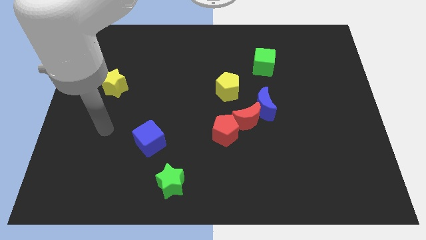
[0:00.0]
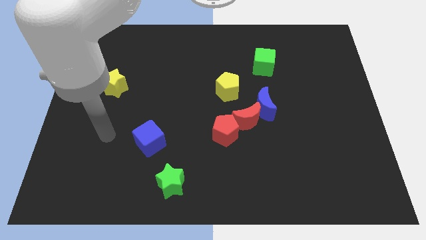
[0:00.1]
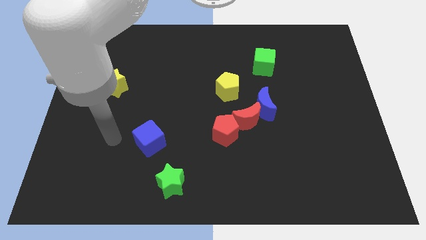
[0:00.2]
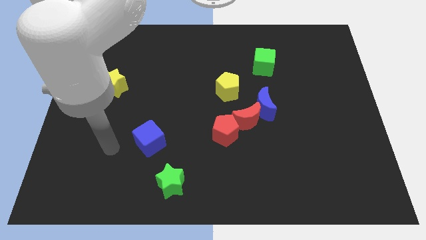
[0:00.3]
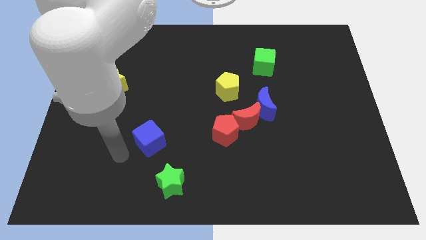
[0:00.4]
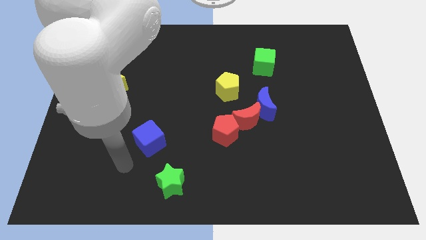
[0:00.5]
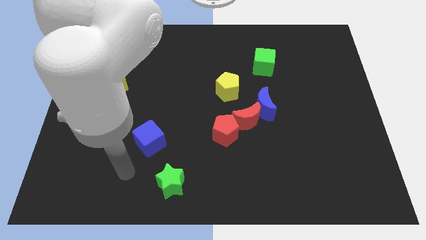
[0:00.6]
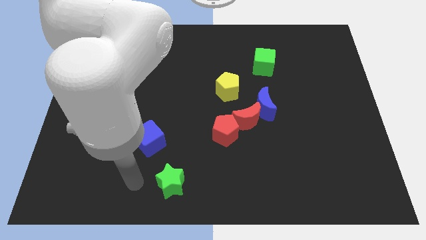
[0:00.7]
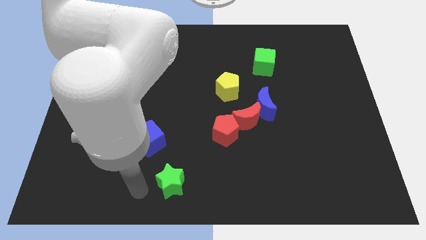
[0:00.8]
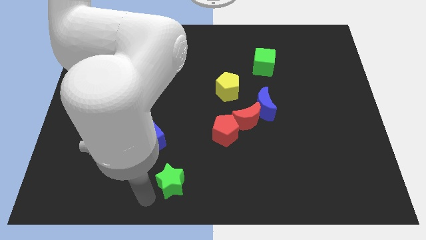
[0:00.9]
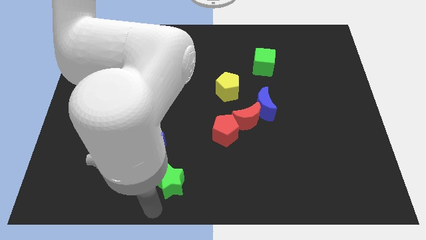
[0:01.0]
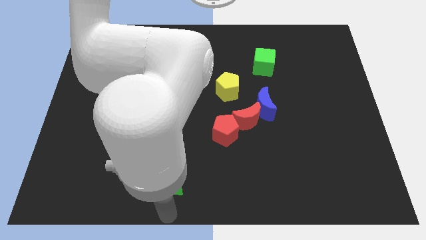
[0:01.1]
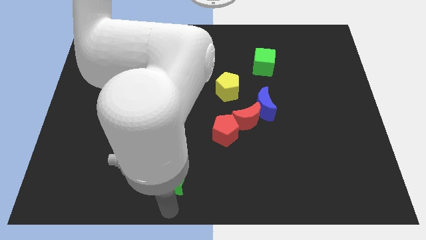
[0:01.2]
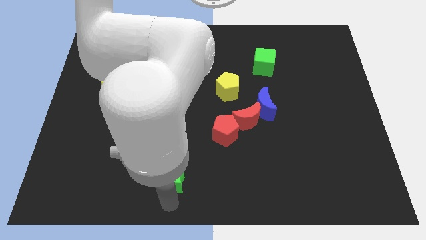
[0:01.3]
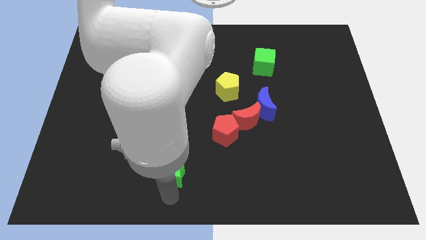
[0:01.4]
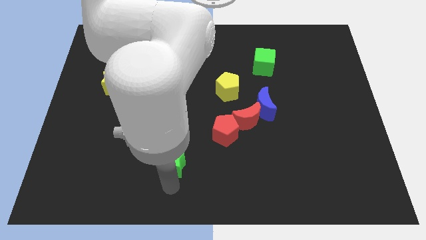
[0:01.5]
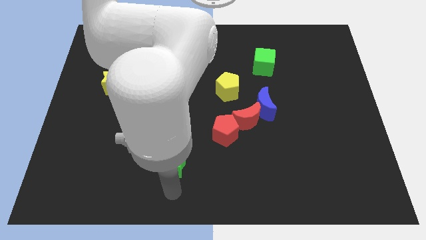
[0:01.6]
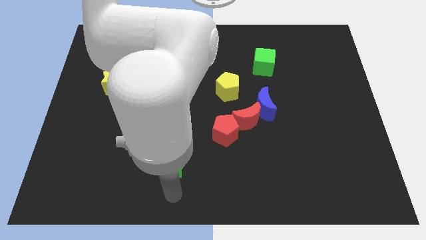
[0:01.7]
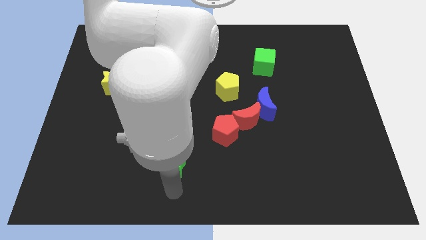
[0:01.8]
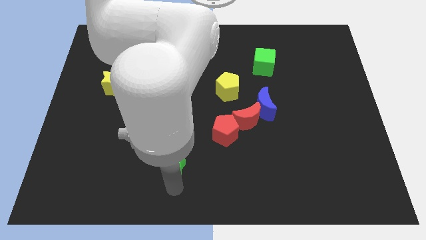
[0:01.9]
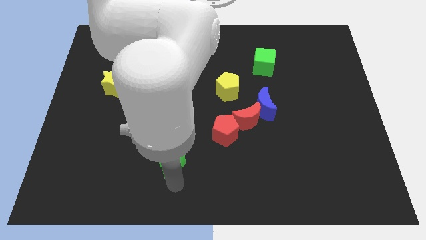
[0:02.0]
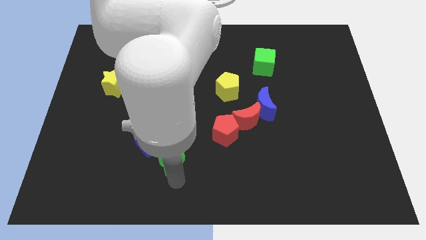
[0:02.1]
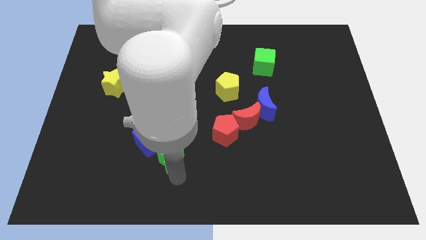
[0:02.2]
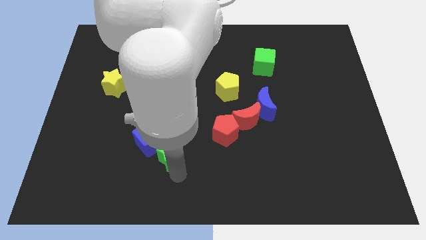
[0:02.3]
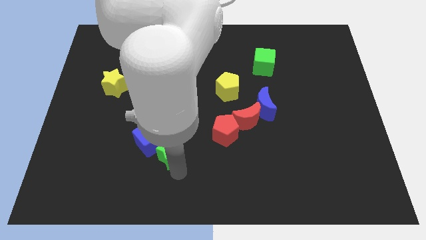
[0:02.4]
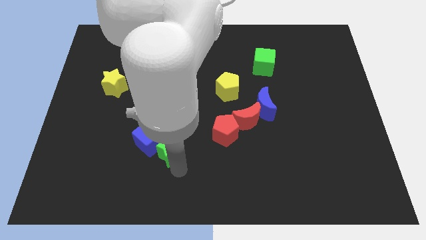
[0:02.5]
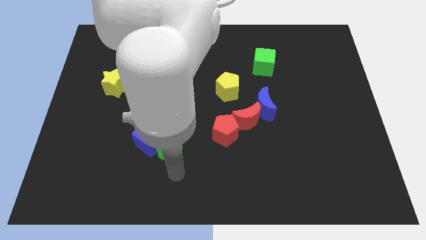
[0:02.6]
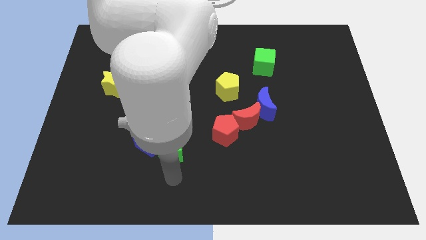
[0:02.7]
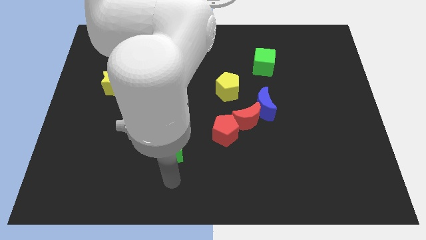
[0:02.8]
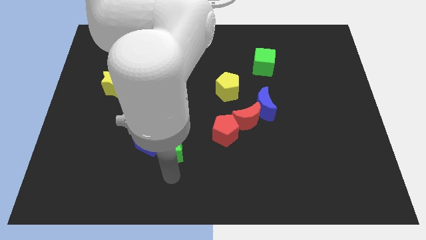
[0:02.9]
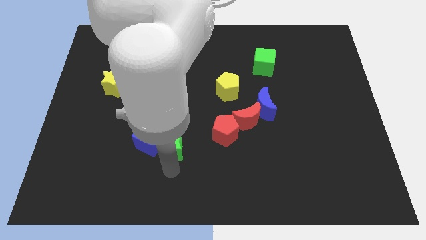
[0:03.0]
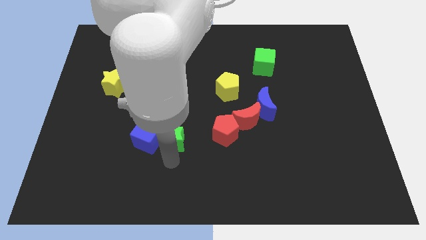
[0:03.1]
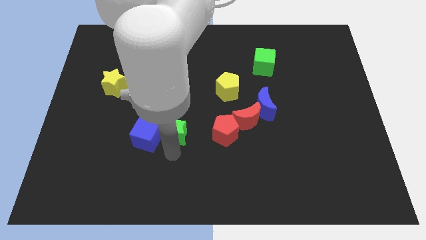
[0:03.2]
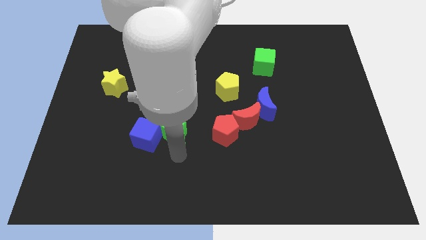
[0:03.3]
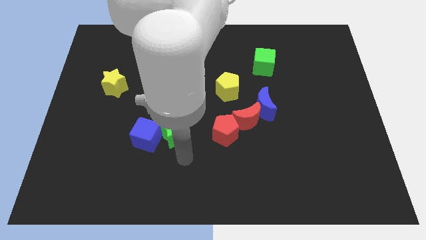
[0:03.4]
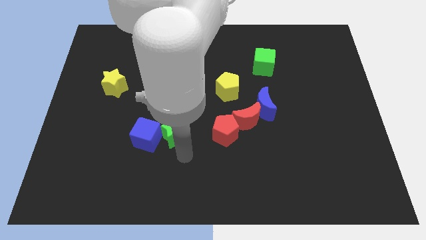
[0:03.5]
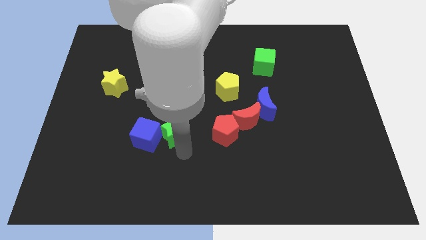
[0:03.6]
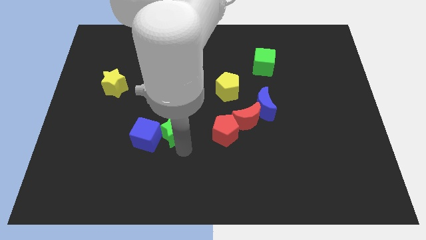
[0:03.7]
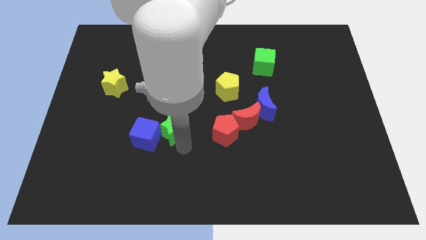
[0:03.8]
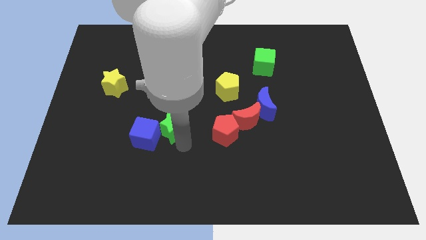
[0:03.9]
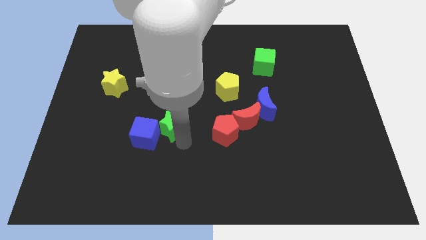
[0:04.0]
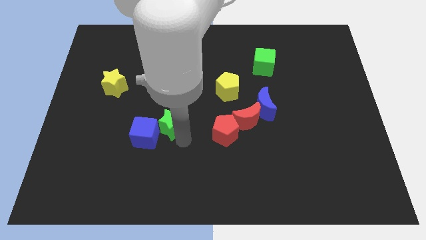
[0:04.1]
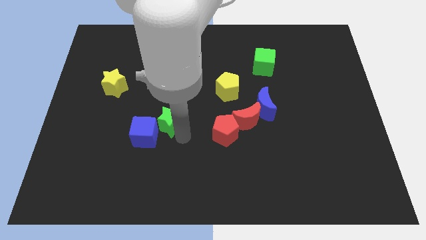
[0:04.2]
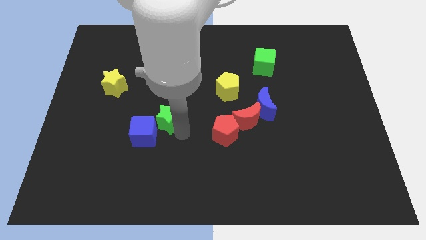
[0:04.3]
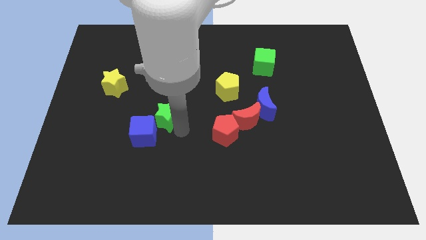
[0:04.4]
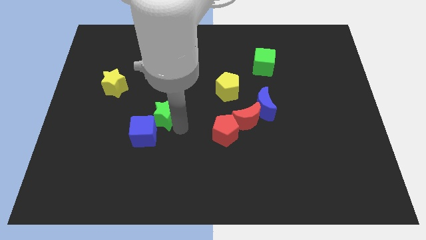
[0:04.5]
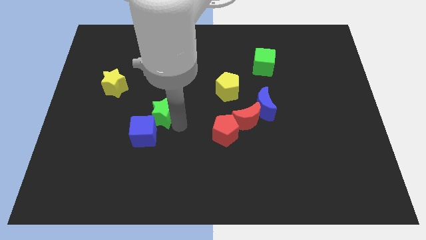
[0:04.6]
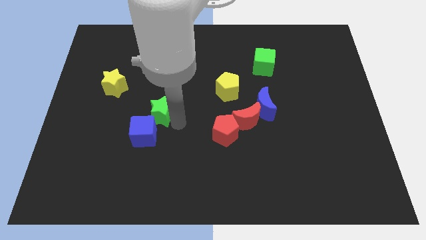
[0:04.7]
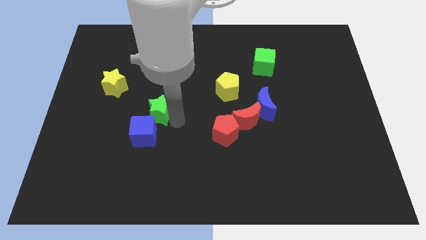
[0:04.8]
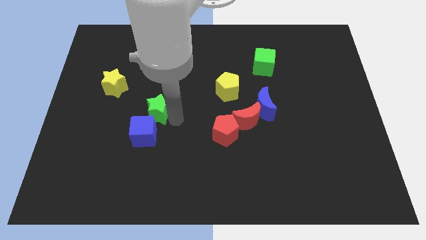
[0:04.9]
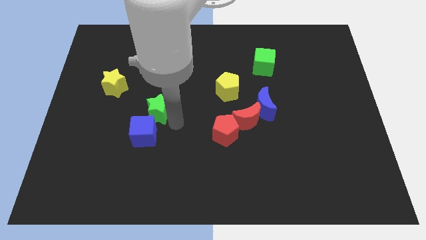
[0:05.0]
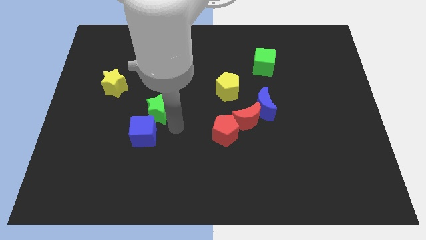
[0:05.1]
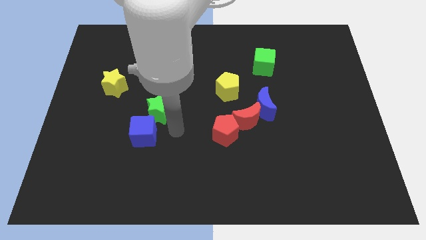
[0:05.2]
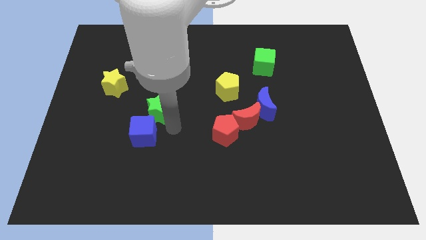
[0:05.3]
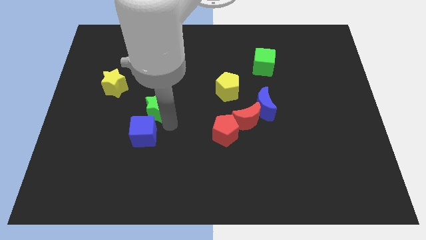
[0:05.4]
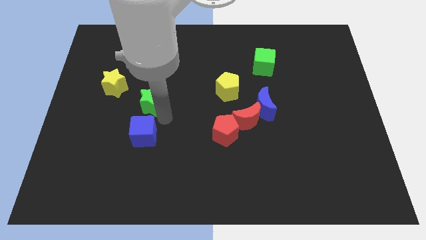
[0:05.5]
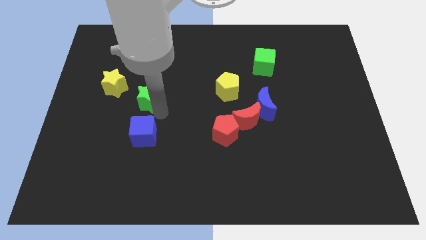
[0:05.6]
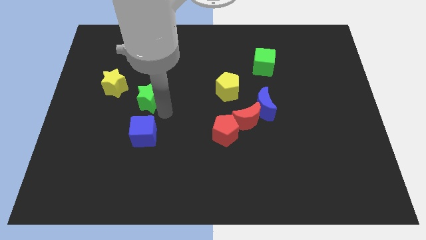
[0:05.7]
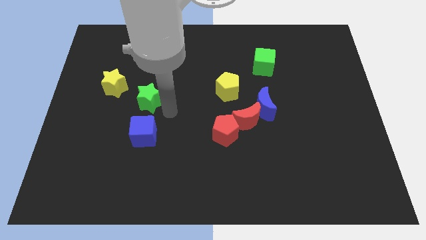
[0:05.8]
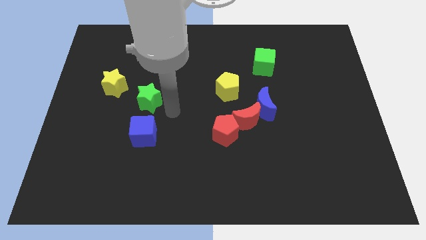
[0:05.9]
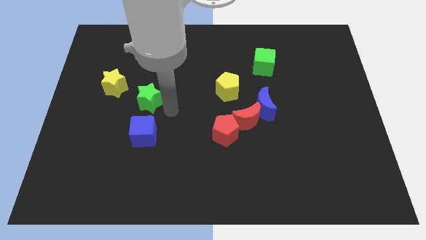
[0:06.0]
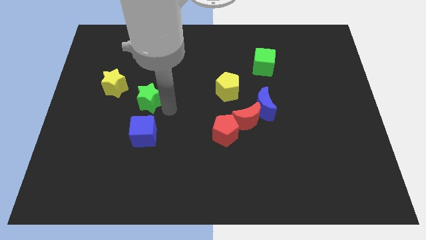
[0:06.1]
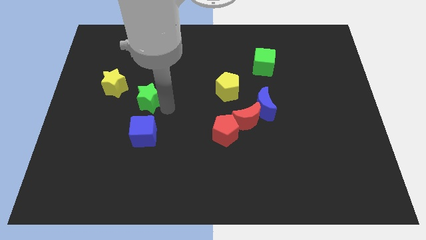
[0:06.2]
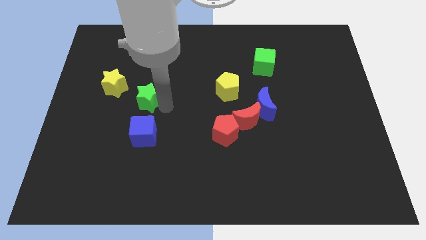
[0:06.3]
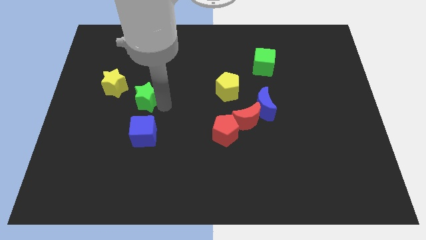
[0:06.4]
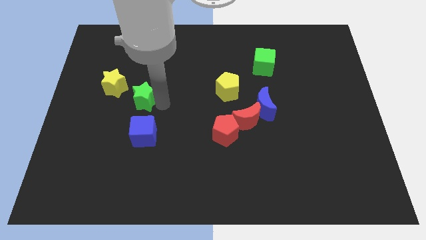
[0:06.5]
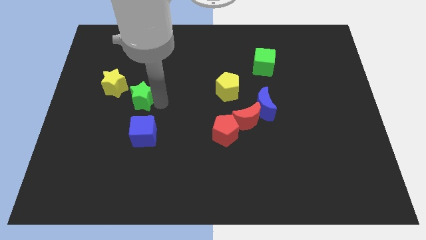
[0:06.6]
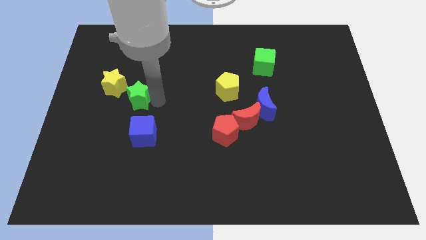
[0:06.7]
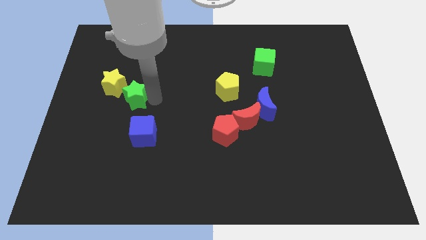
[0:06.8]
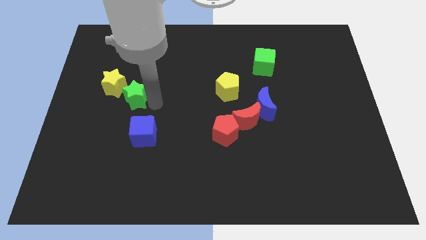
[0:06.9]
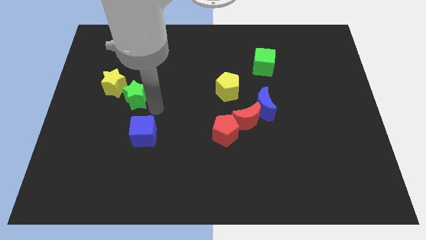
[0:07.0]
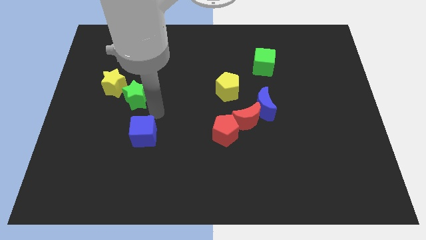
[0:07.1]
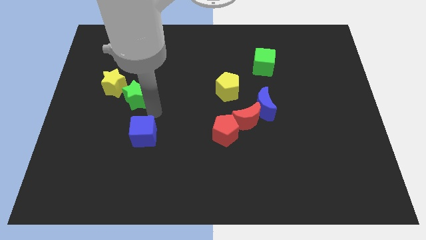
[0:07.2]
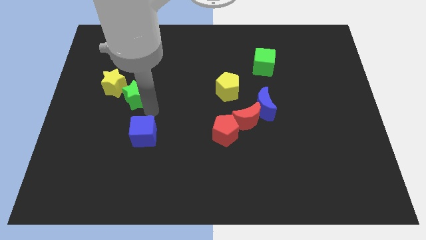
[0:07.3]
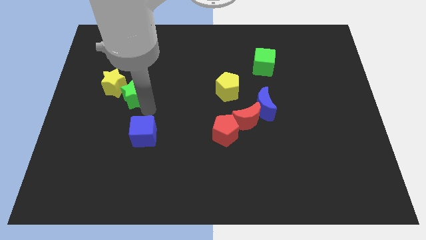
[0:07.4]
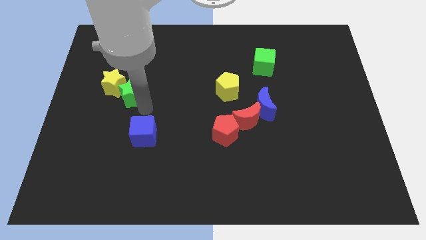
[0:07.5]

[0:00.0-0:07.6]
move the green star next to the yellow star
